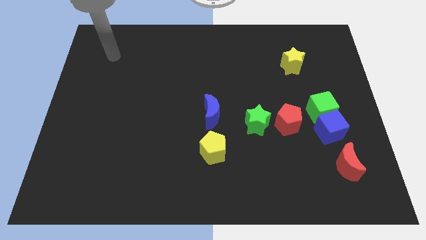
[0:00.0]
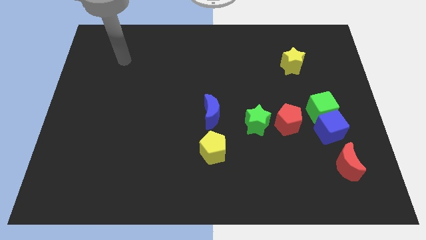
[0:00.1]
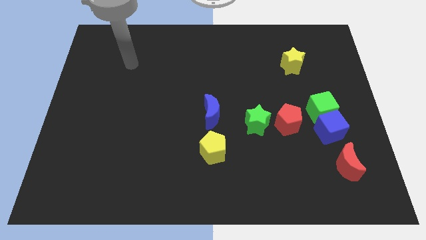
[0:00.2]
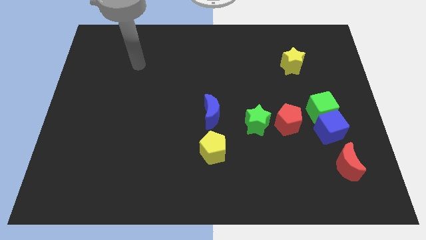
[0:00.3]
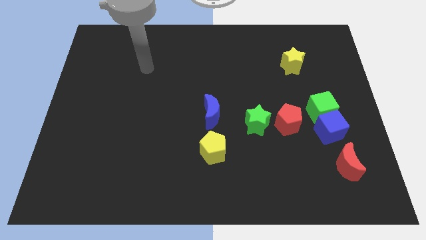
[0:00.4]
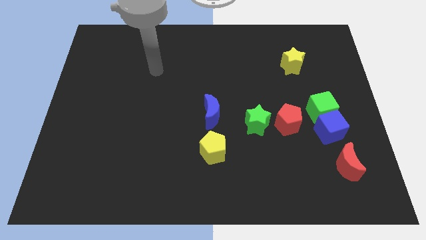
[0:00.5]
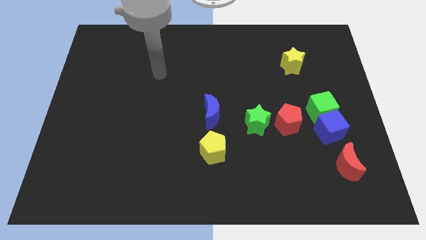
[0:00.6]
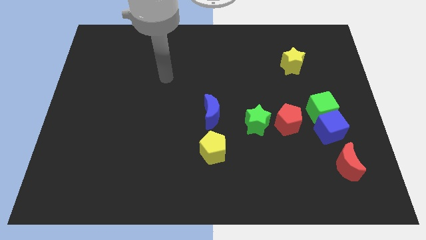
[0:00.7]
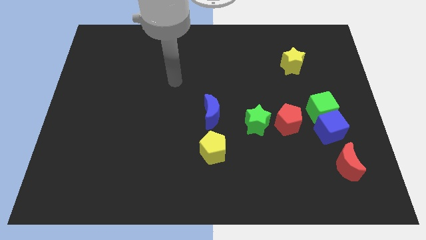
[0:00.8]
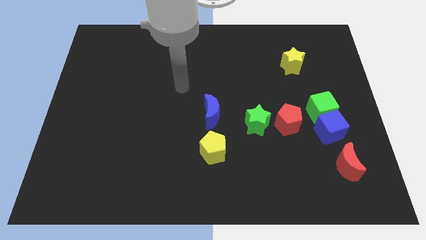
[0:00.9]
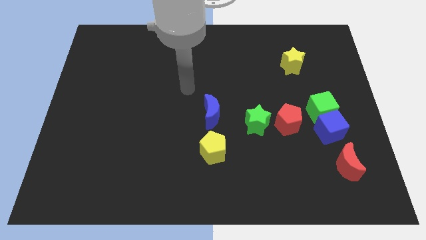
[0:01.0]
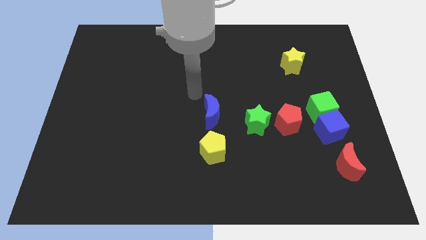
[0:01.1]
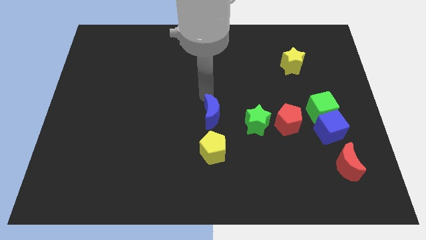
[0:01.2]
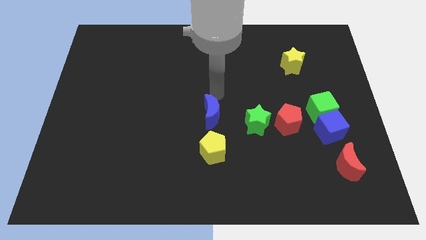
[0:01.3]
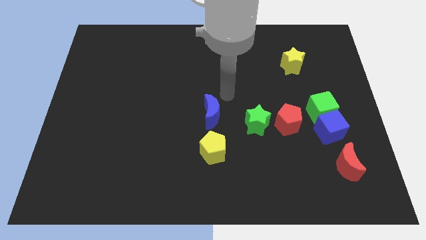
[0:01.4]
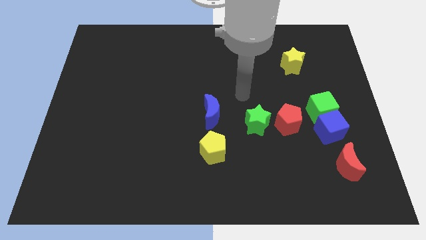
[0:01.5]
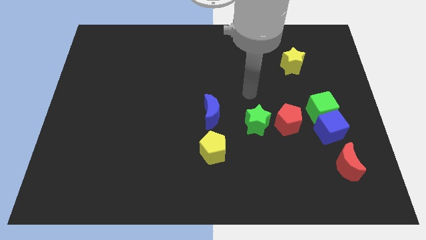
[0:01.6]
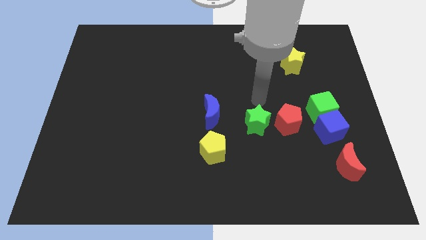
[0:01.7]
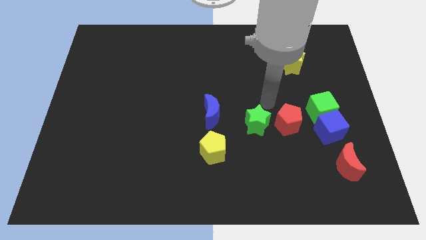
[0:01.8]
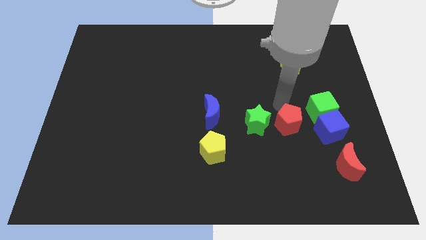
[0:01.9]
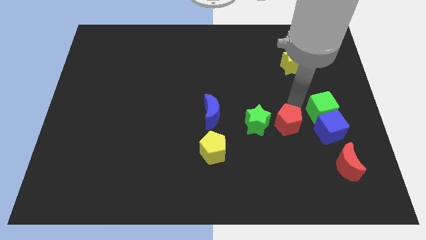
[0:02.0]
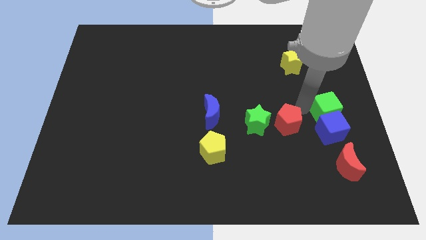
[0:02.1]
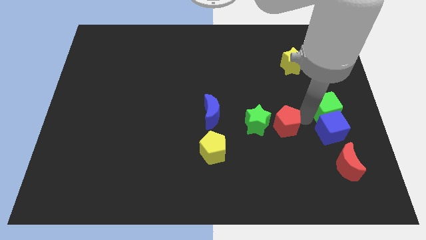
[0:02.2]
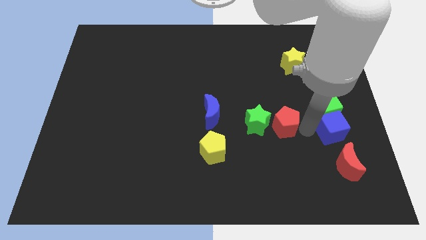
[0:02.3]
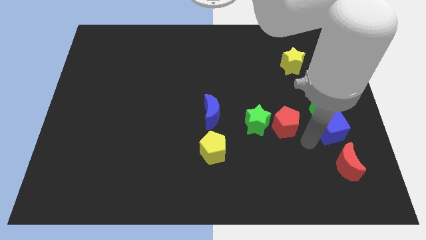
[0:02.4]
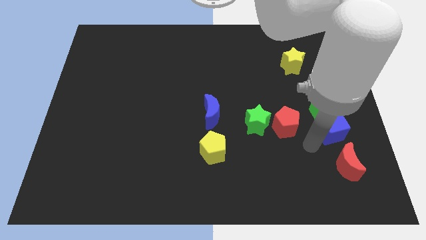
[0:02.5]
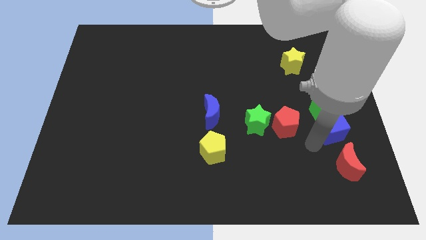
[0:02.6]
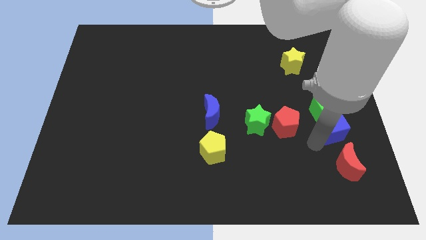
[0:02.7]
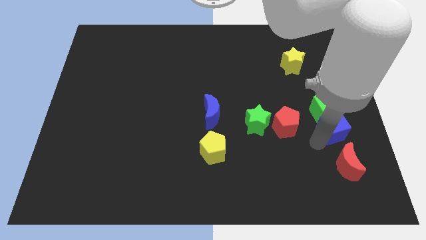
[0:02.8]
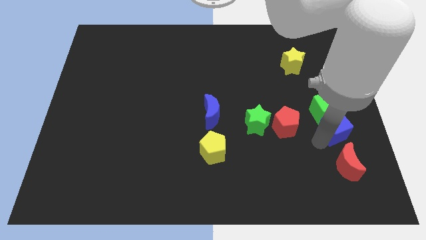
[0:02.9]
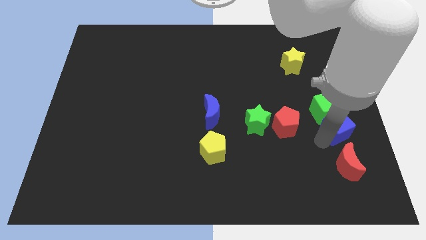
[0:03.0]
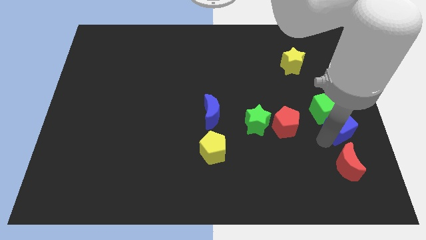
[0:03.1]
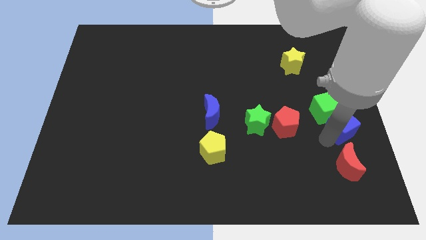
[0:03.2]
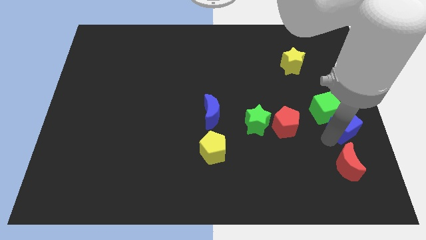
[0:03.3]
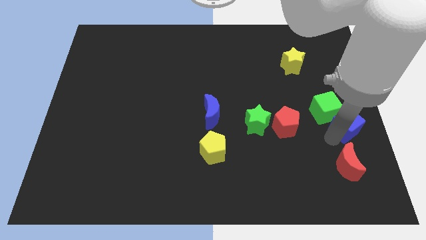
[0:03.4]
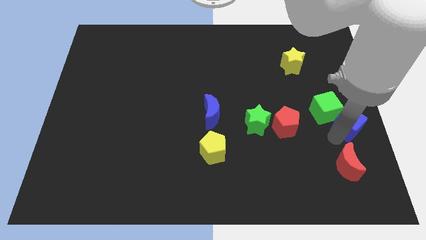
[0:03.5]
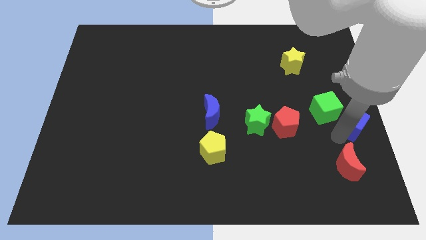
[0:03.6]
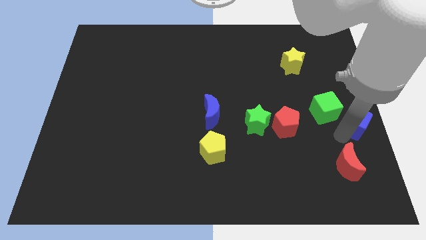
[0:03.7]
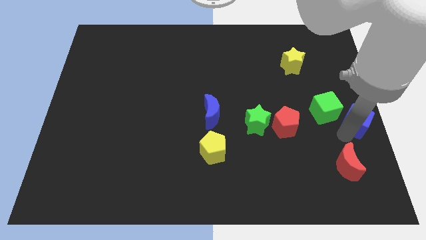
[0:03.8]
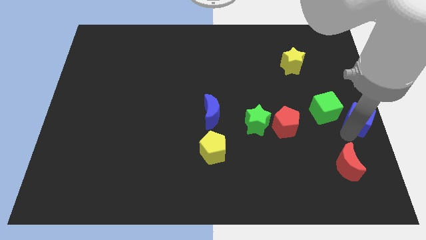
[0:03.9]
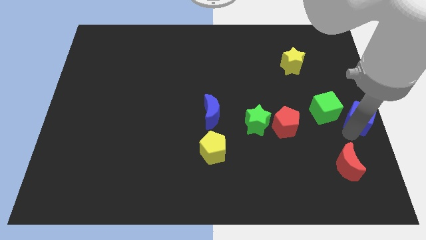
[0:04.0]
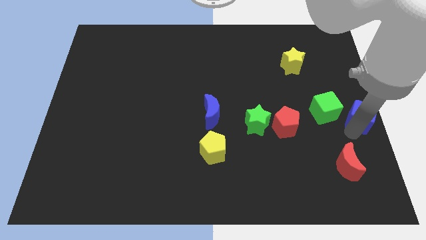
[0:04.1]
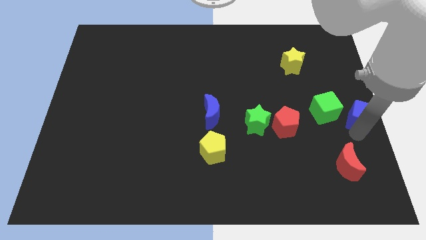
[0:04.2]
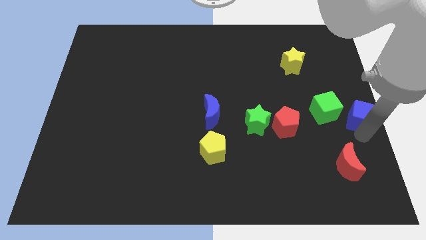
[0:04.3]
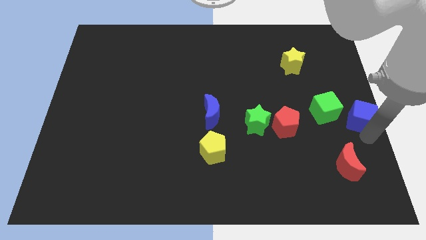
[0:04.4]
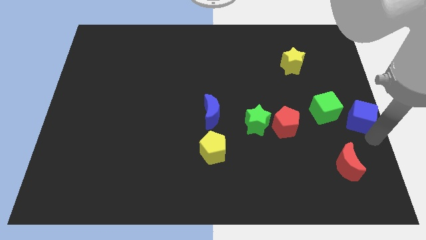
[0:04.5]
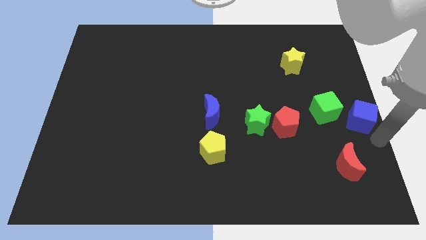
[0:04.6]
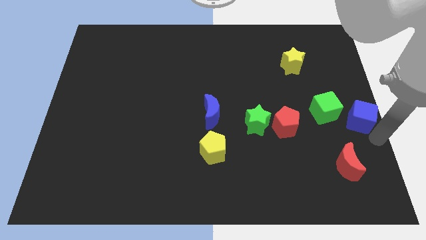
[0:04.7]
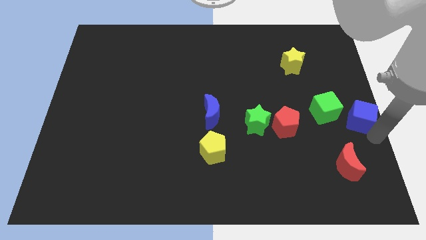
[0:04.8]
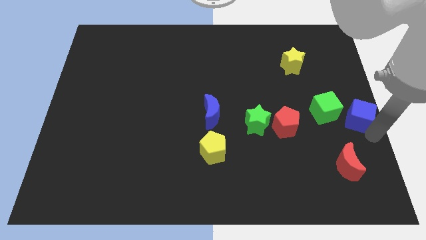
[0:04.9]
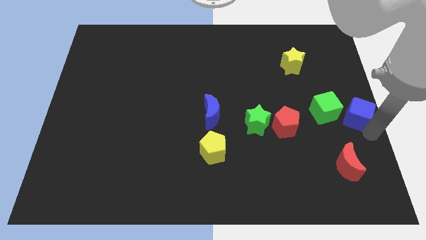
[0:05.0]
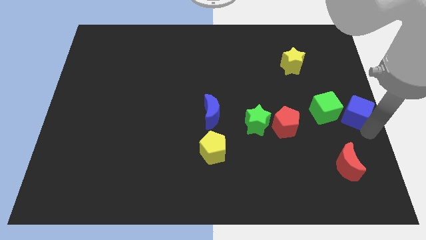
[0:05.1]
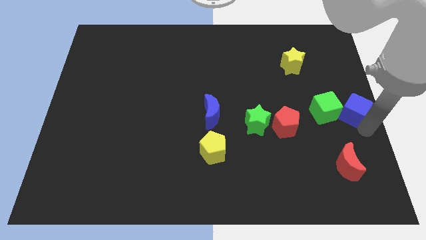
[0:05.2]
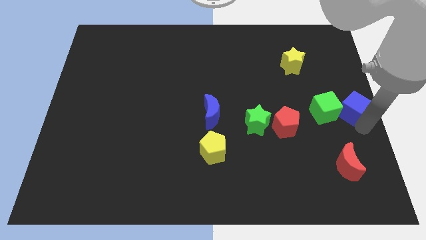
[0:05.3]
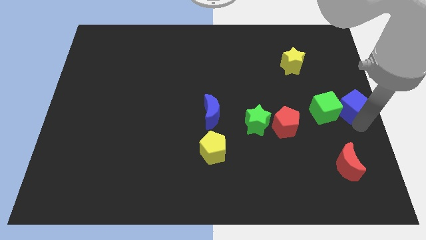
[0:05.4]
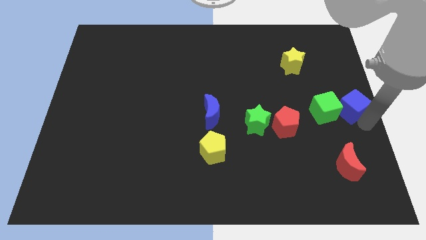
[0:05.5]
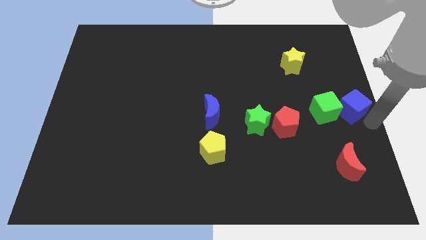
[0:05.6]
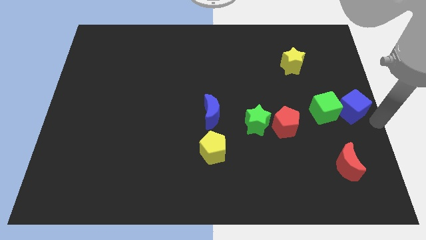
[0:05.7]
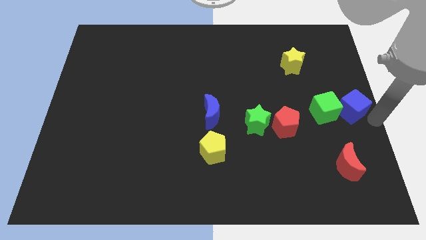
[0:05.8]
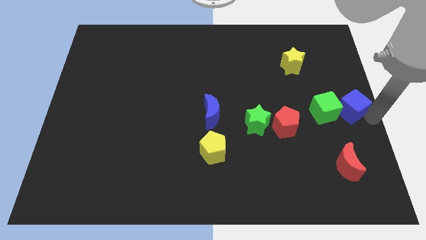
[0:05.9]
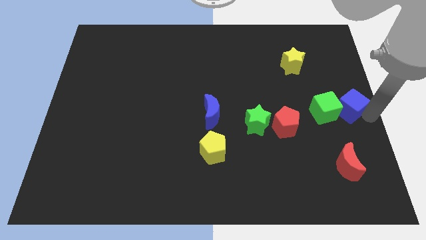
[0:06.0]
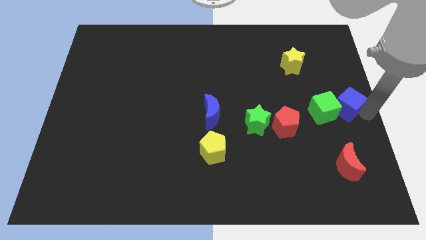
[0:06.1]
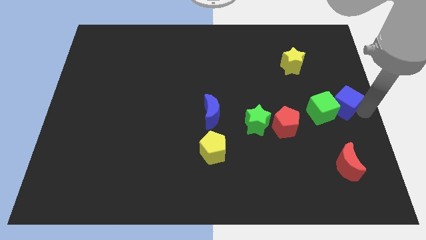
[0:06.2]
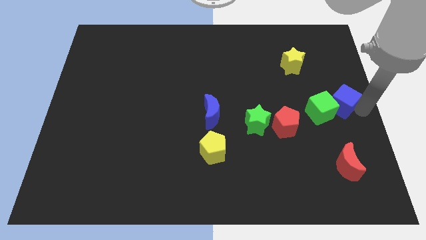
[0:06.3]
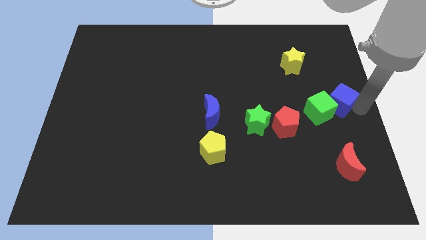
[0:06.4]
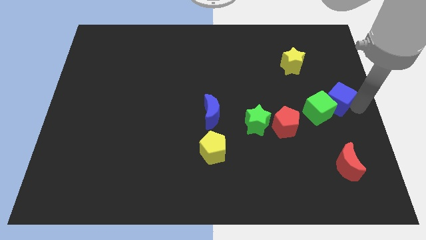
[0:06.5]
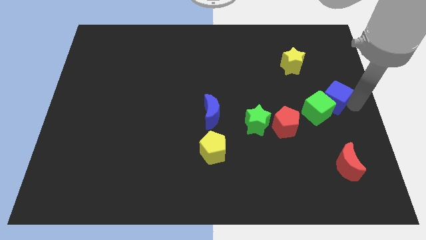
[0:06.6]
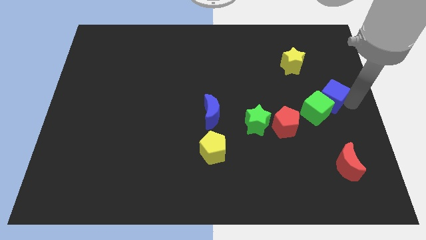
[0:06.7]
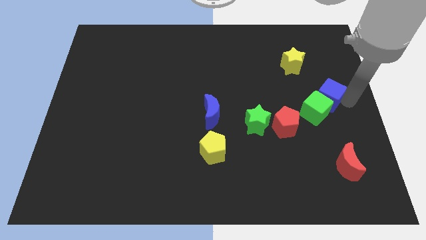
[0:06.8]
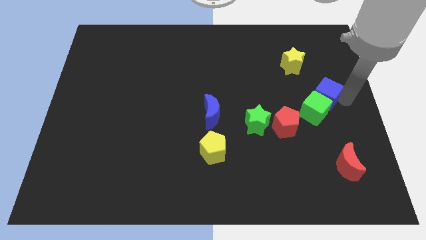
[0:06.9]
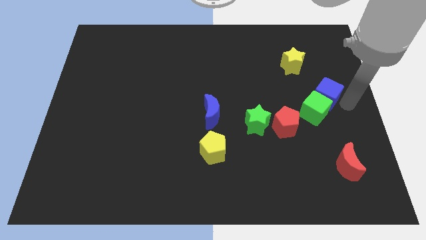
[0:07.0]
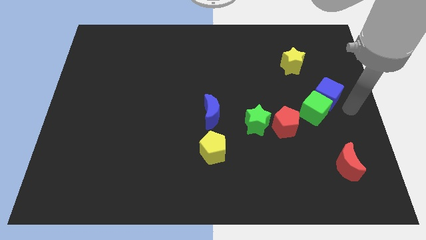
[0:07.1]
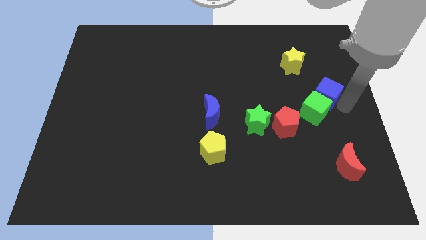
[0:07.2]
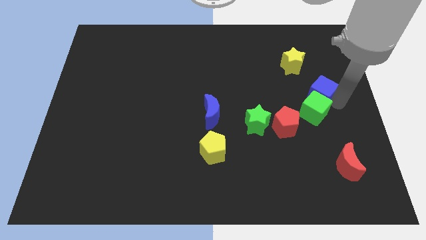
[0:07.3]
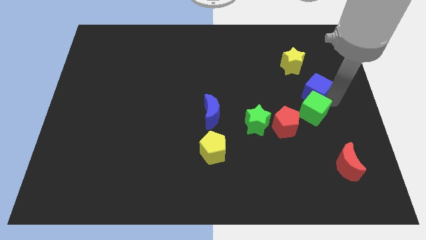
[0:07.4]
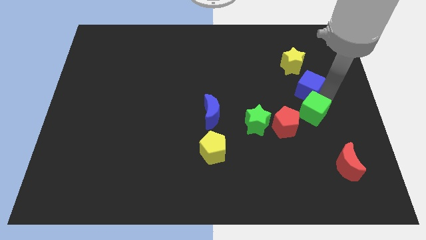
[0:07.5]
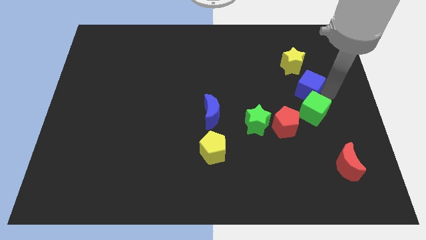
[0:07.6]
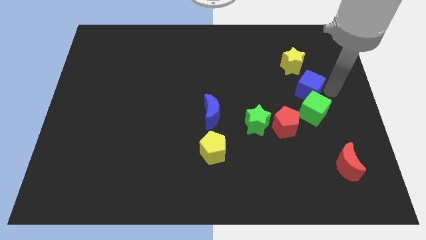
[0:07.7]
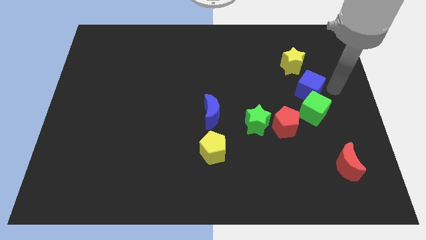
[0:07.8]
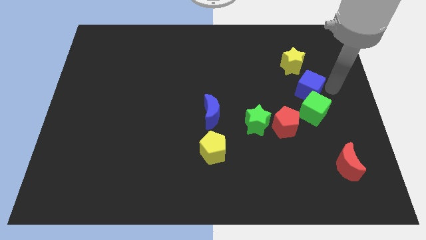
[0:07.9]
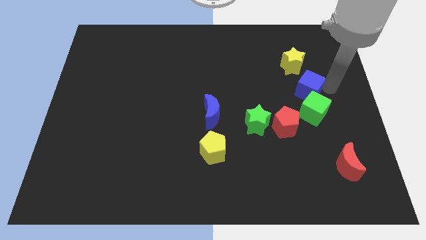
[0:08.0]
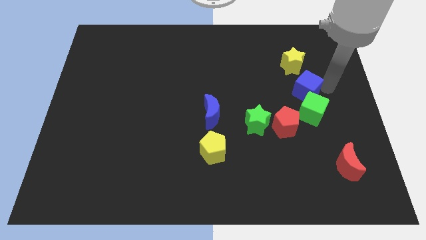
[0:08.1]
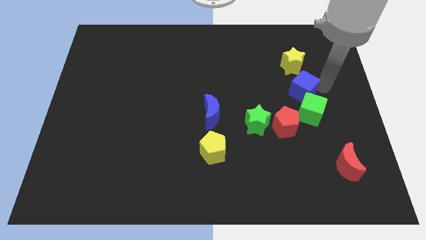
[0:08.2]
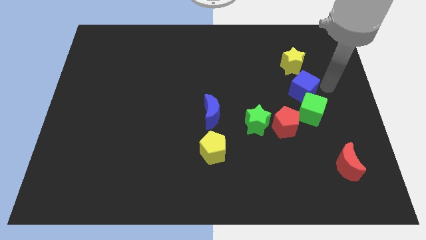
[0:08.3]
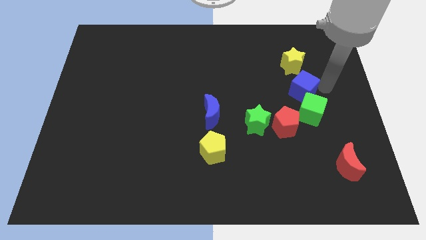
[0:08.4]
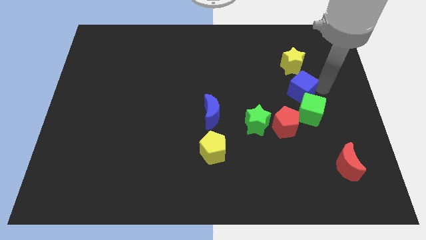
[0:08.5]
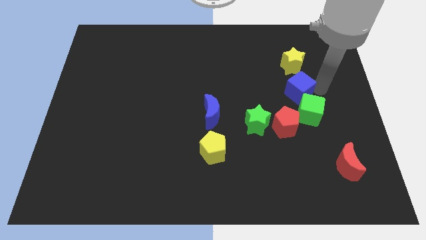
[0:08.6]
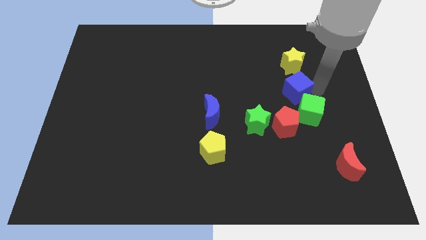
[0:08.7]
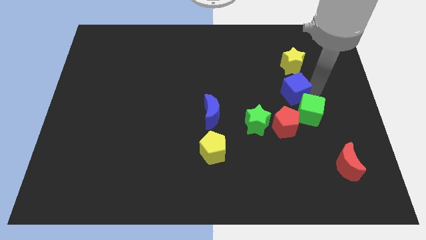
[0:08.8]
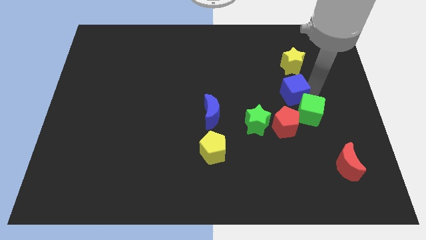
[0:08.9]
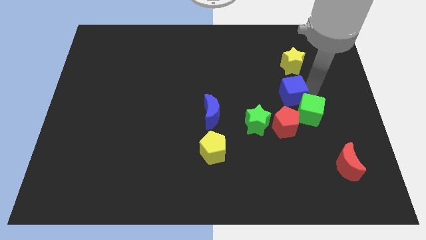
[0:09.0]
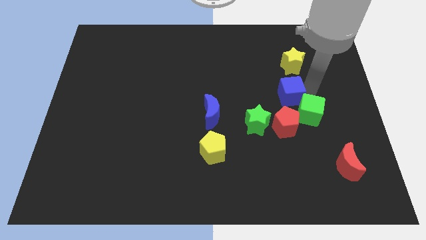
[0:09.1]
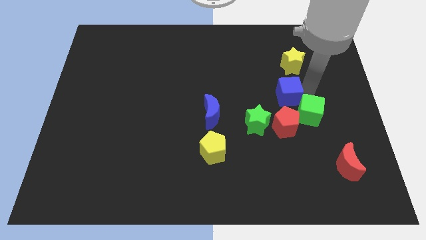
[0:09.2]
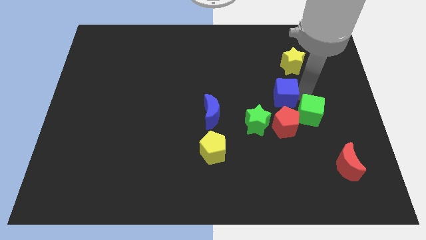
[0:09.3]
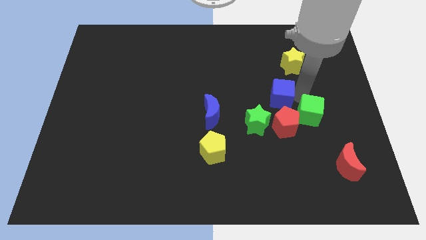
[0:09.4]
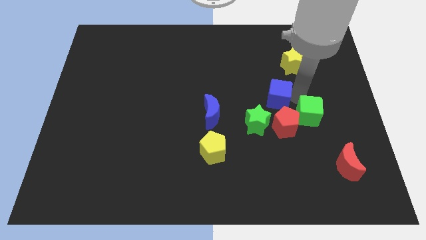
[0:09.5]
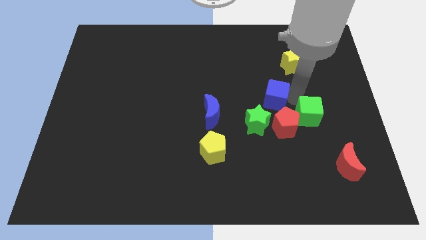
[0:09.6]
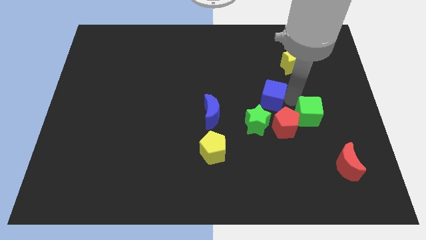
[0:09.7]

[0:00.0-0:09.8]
put the blue cube to the top of the green star
